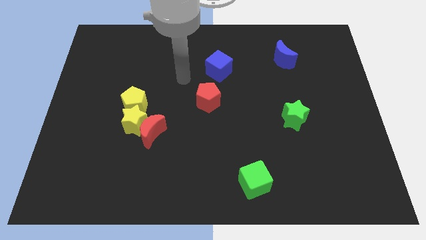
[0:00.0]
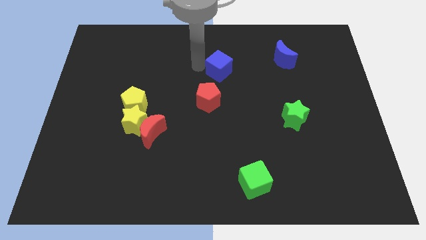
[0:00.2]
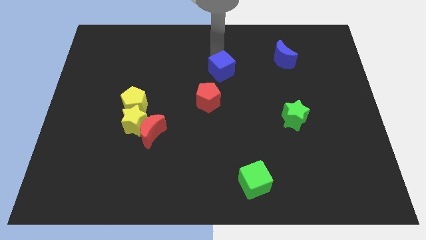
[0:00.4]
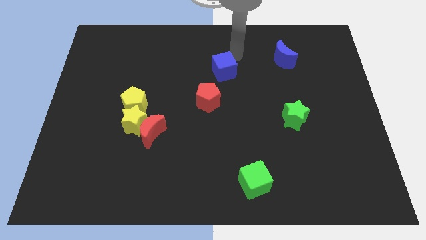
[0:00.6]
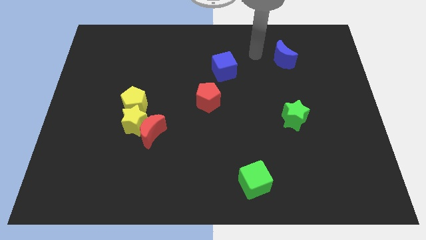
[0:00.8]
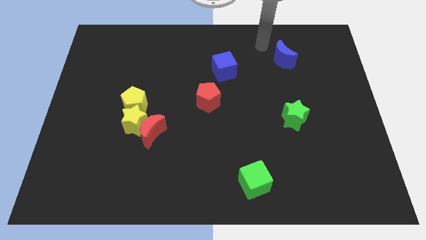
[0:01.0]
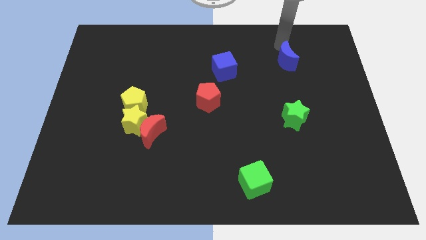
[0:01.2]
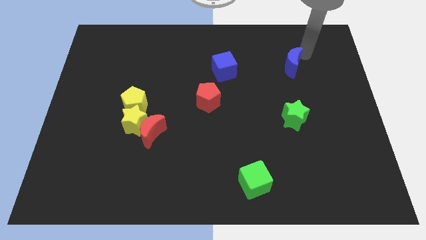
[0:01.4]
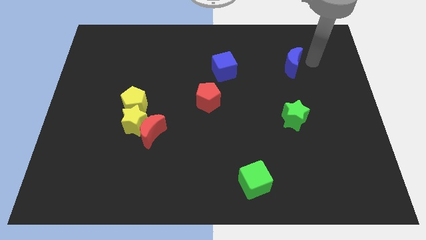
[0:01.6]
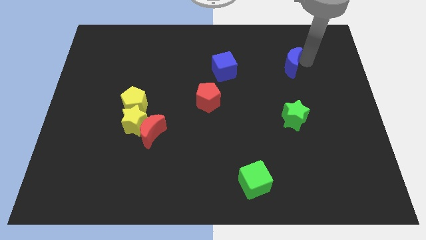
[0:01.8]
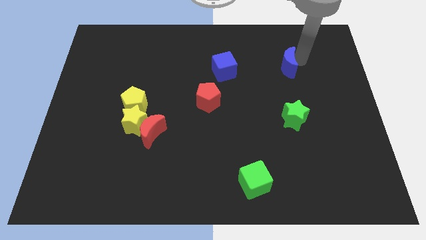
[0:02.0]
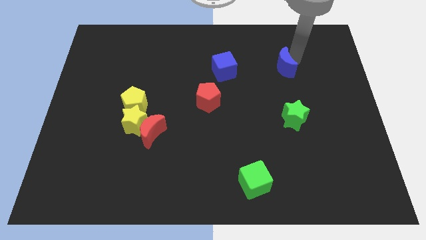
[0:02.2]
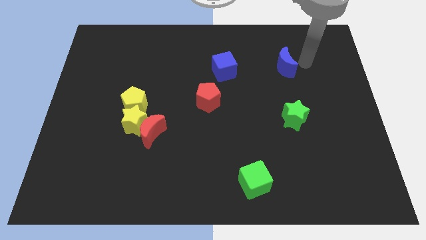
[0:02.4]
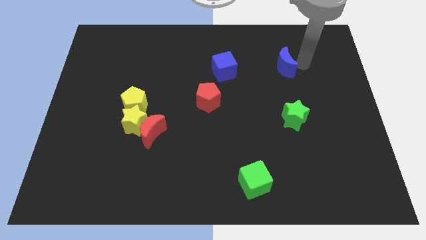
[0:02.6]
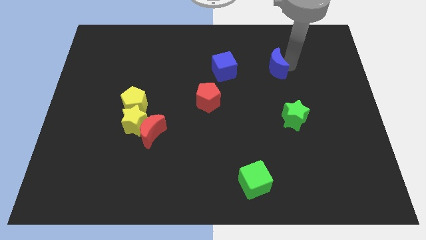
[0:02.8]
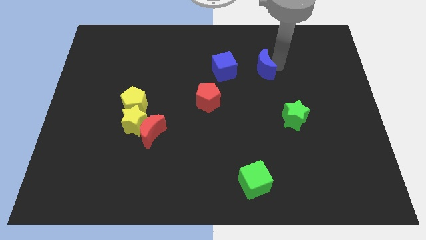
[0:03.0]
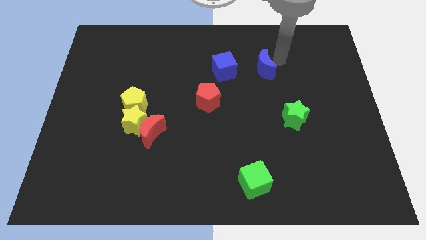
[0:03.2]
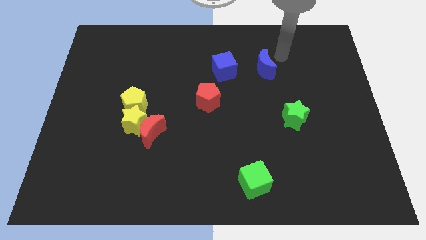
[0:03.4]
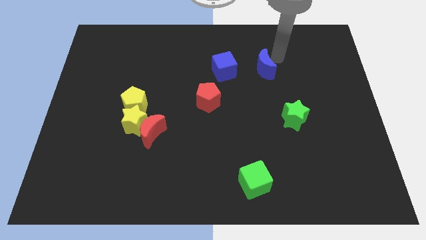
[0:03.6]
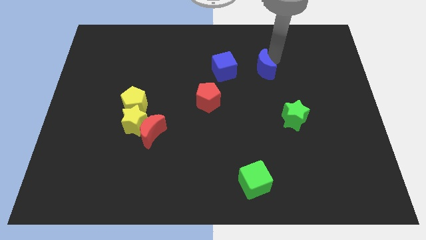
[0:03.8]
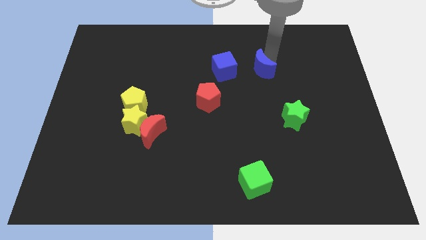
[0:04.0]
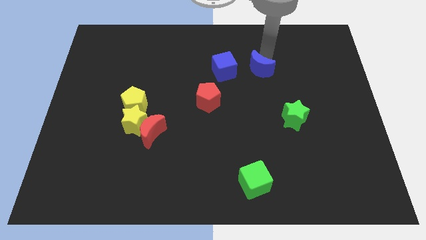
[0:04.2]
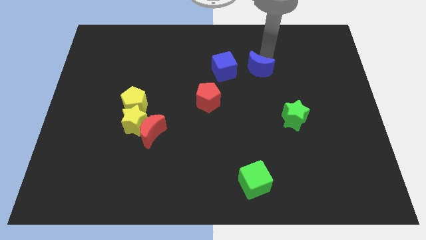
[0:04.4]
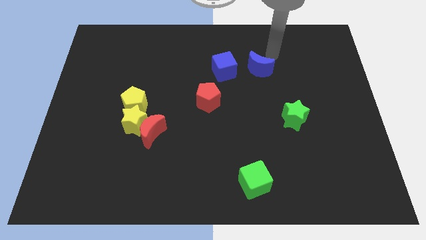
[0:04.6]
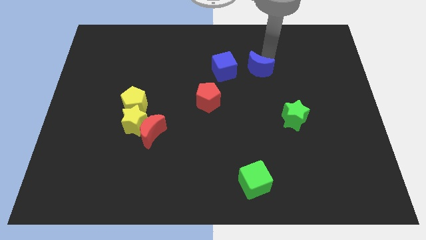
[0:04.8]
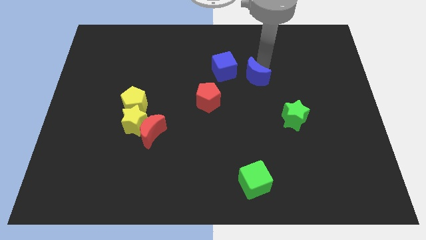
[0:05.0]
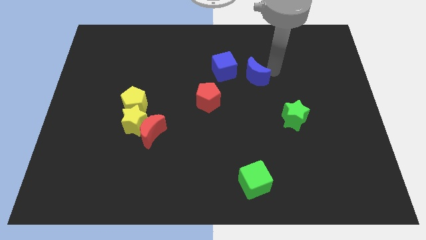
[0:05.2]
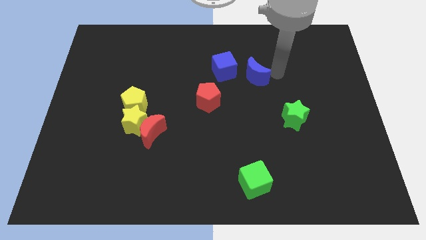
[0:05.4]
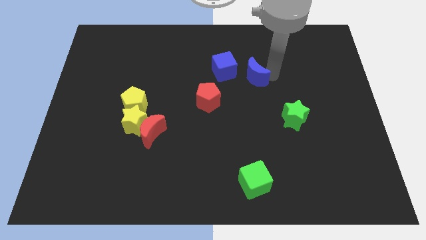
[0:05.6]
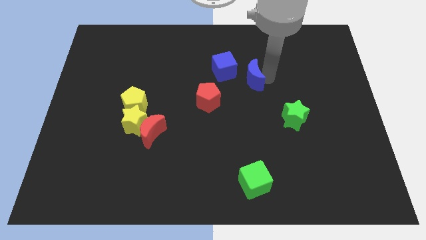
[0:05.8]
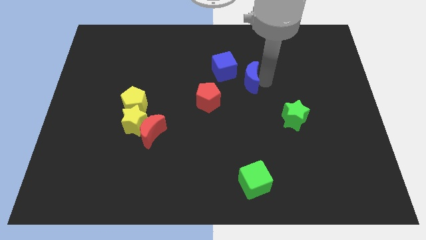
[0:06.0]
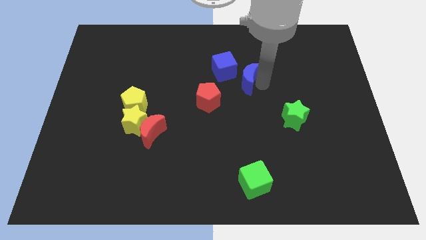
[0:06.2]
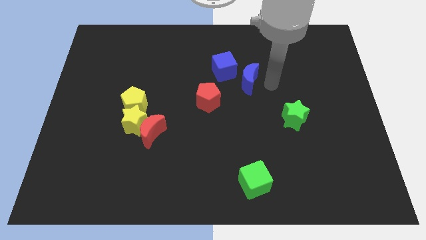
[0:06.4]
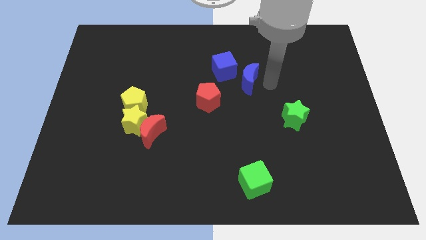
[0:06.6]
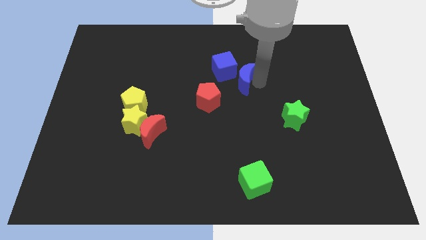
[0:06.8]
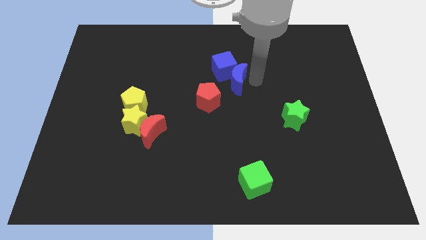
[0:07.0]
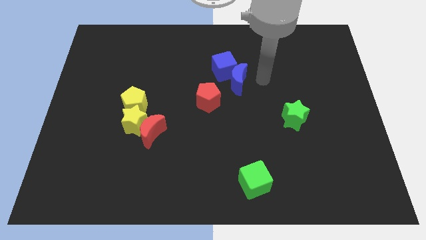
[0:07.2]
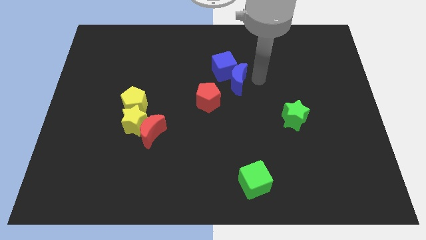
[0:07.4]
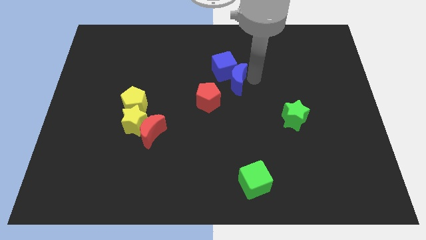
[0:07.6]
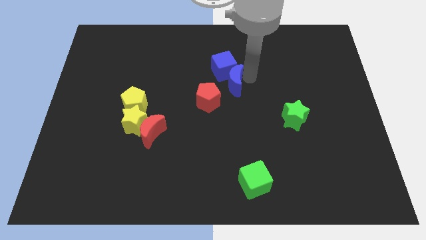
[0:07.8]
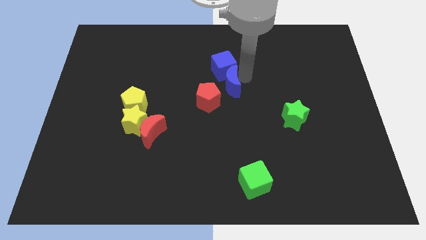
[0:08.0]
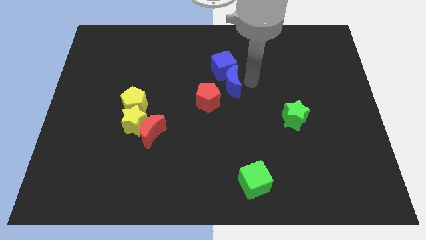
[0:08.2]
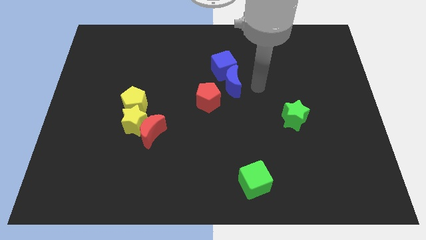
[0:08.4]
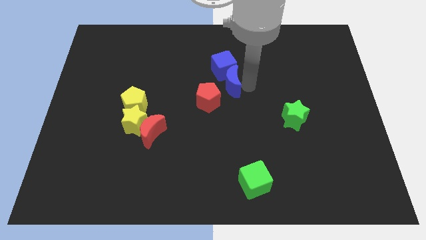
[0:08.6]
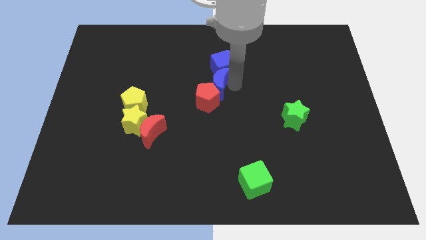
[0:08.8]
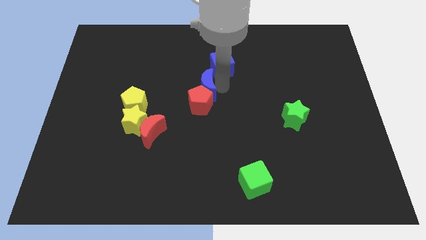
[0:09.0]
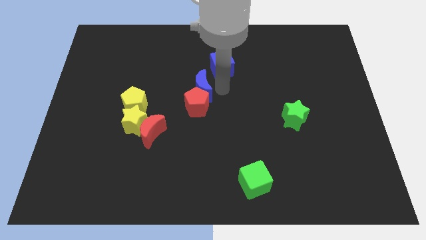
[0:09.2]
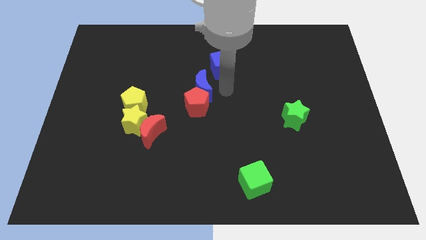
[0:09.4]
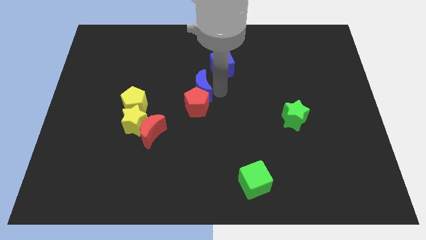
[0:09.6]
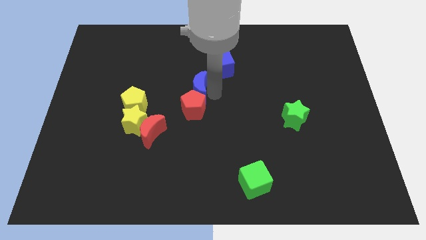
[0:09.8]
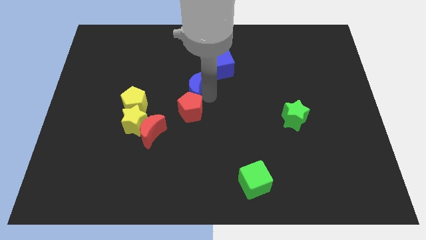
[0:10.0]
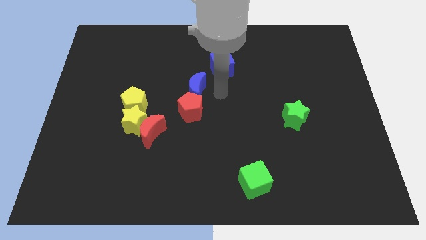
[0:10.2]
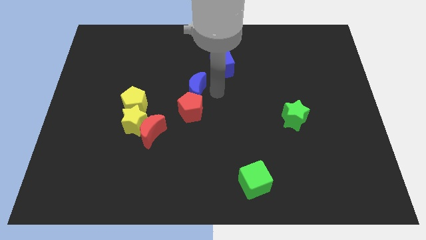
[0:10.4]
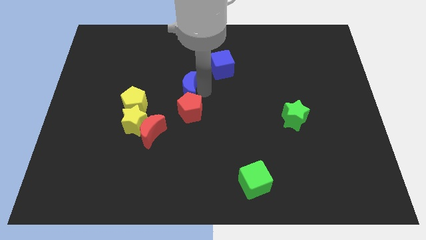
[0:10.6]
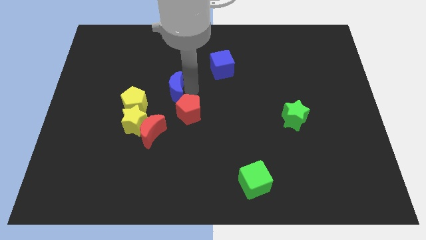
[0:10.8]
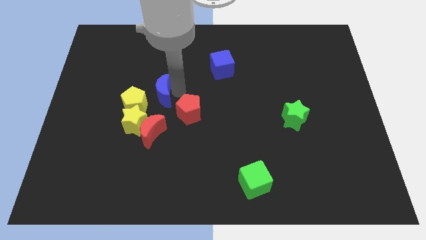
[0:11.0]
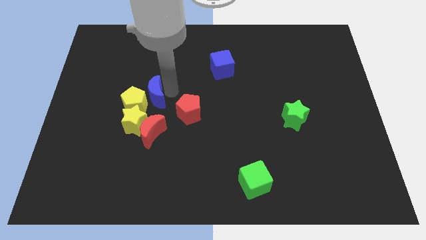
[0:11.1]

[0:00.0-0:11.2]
push the blue moon to the yellow pentagon

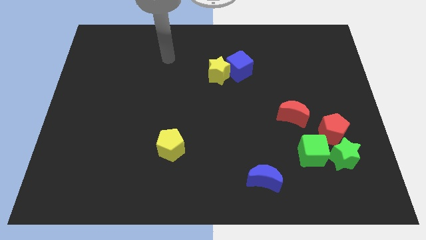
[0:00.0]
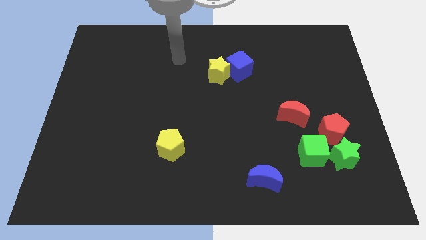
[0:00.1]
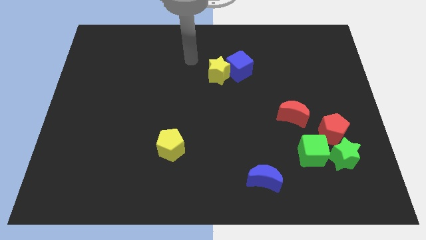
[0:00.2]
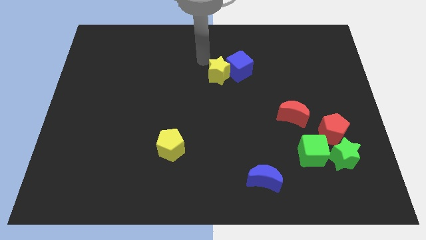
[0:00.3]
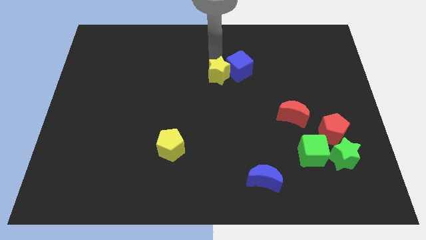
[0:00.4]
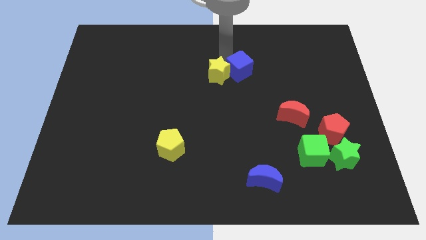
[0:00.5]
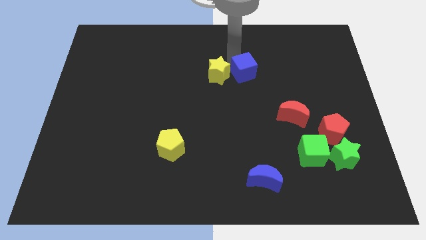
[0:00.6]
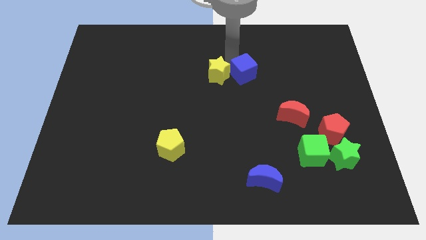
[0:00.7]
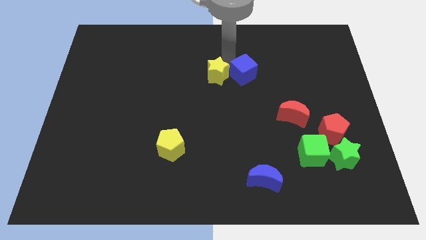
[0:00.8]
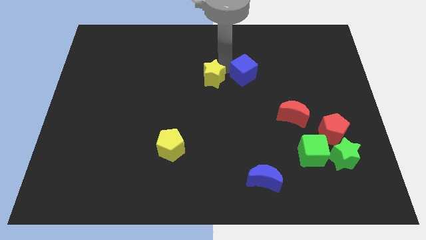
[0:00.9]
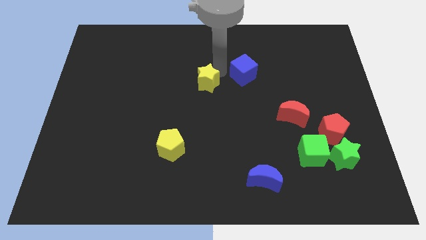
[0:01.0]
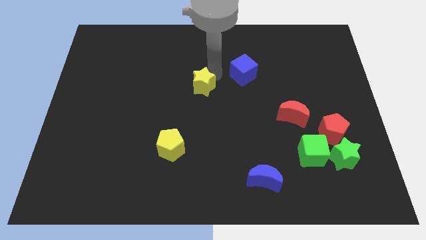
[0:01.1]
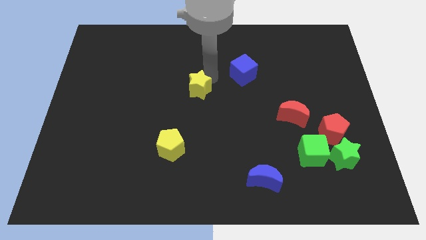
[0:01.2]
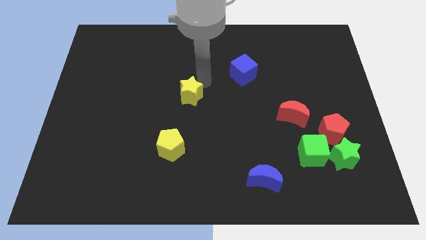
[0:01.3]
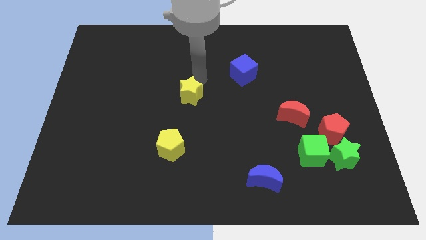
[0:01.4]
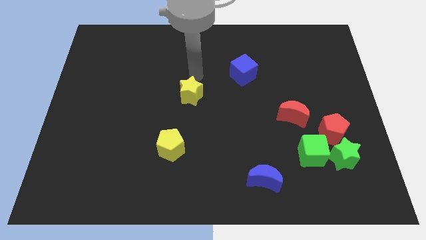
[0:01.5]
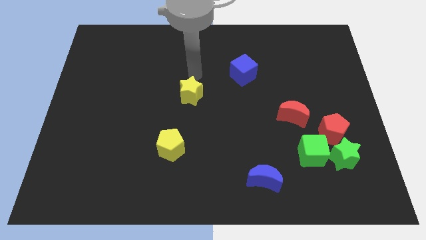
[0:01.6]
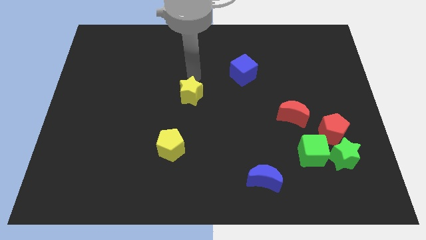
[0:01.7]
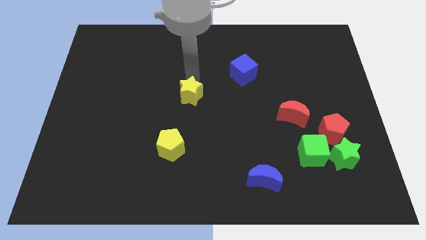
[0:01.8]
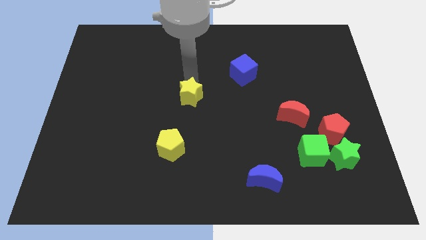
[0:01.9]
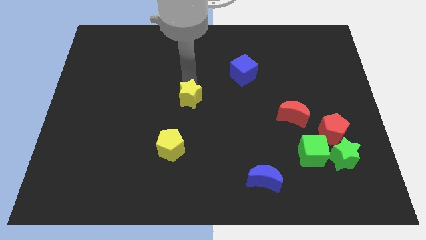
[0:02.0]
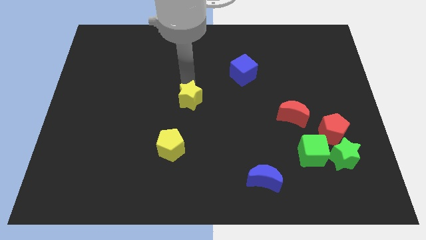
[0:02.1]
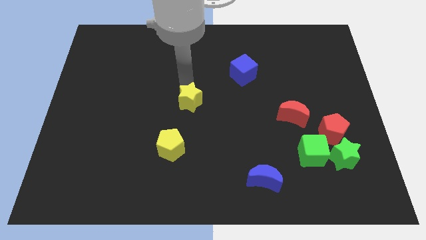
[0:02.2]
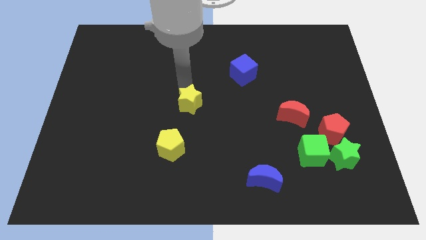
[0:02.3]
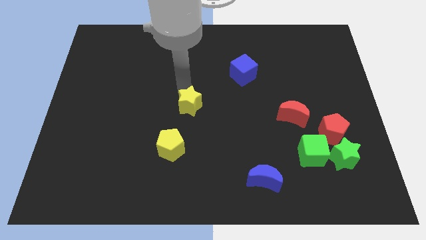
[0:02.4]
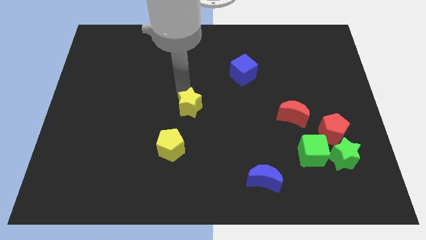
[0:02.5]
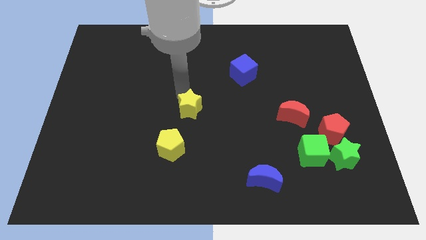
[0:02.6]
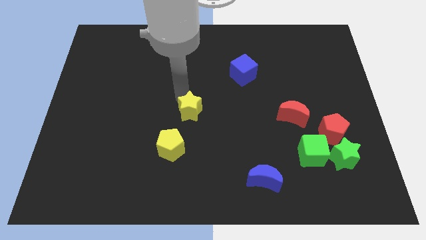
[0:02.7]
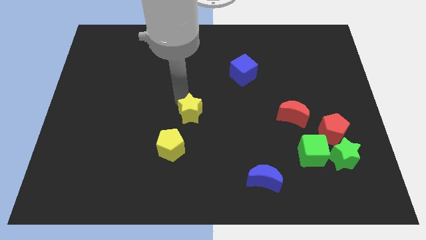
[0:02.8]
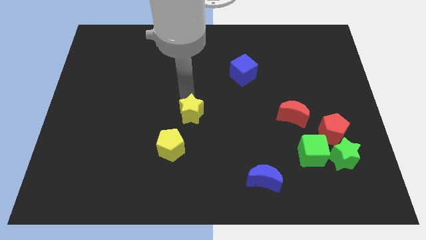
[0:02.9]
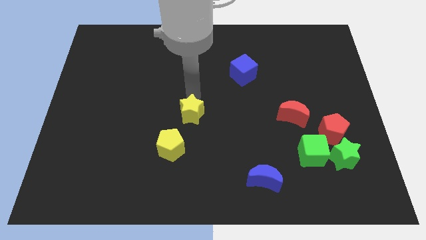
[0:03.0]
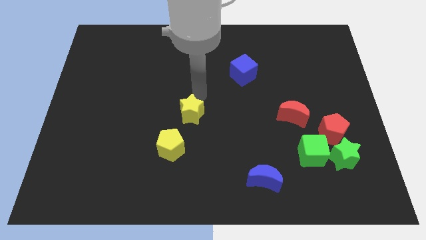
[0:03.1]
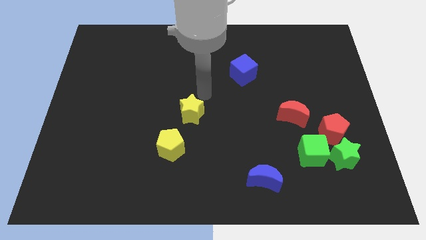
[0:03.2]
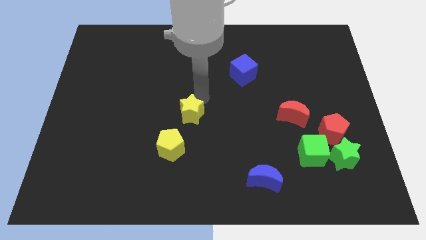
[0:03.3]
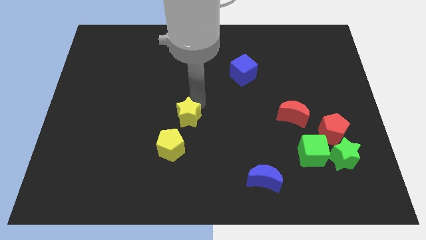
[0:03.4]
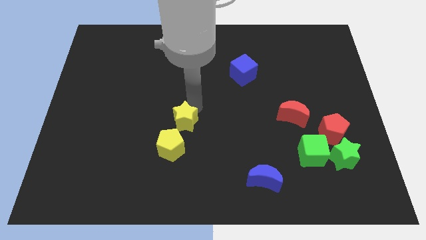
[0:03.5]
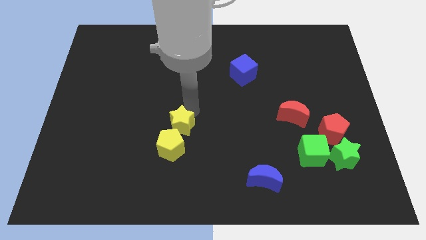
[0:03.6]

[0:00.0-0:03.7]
slide the yellow star to the yellow pentagon
